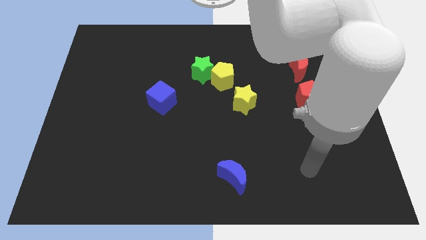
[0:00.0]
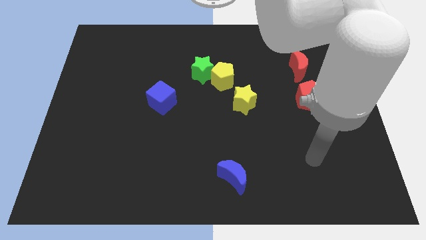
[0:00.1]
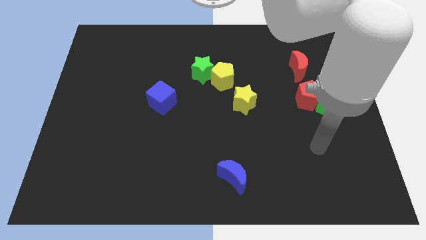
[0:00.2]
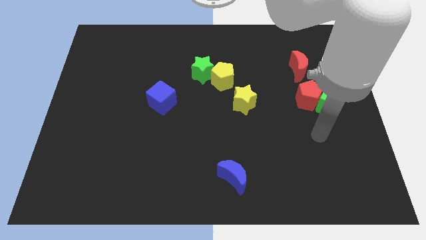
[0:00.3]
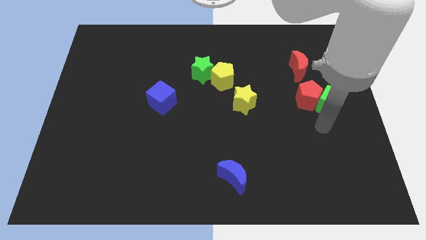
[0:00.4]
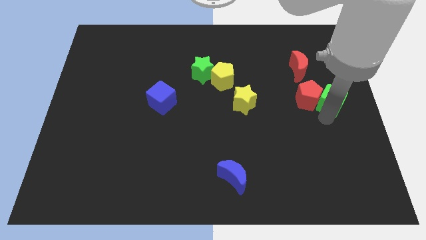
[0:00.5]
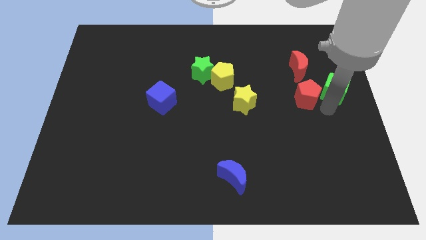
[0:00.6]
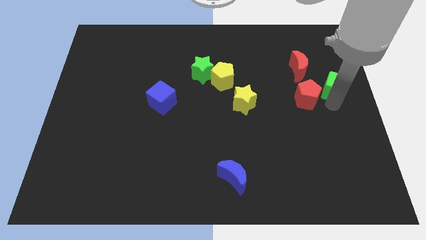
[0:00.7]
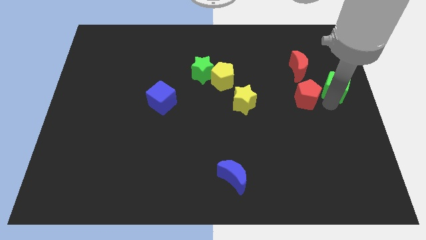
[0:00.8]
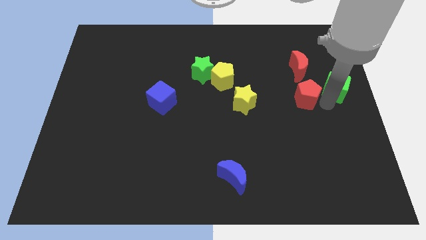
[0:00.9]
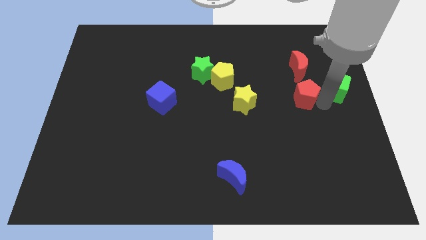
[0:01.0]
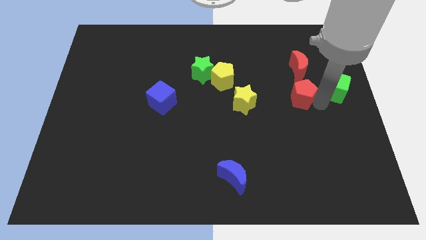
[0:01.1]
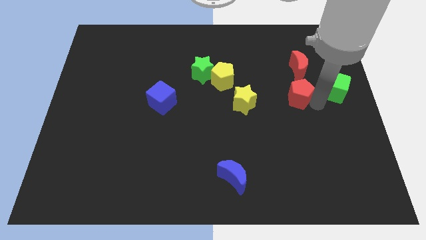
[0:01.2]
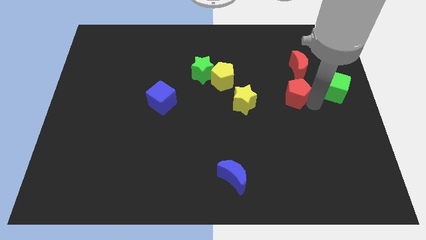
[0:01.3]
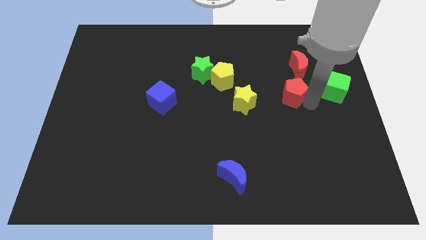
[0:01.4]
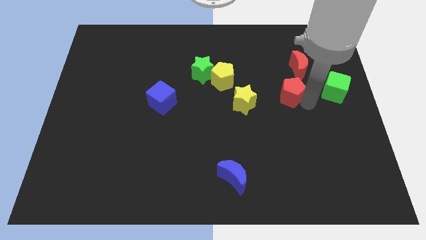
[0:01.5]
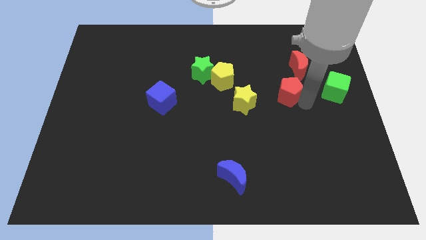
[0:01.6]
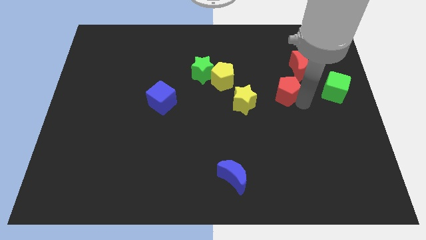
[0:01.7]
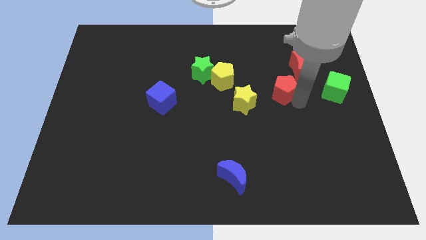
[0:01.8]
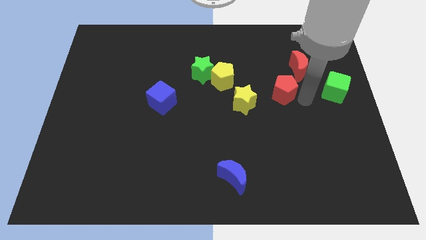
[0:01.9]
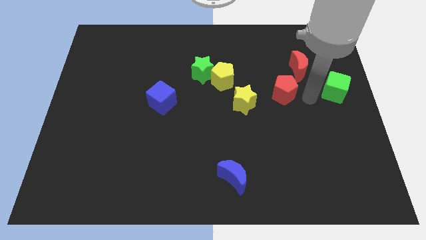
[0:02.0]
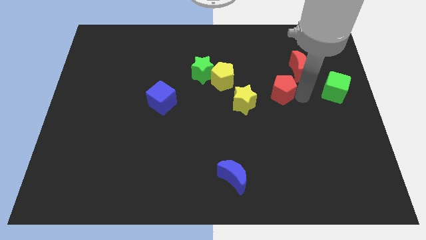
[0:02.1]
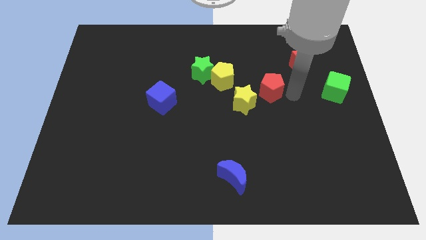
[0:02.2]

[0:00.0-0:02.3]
push the red pentagon a bit left

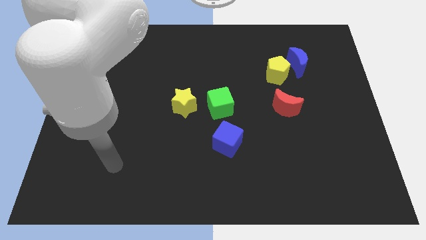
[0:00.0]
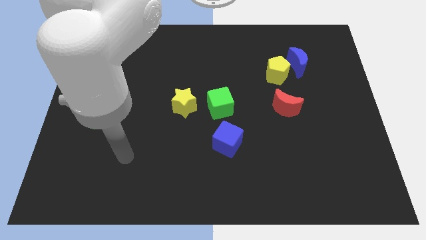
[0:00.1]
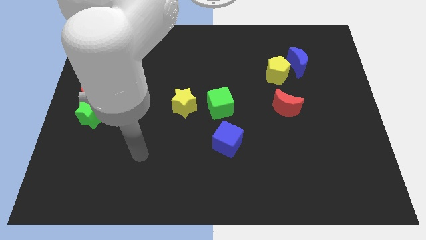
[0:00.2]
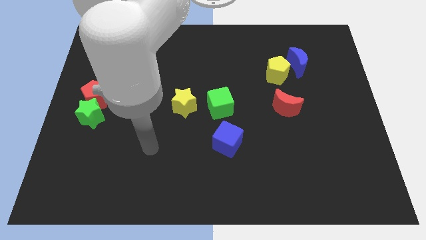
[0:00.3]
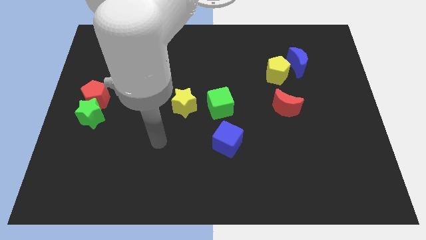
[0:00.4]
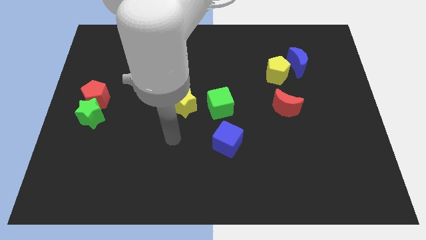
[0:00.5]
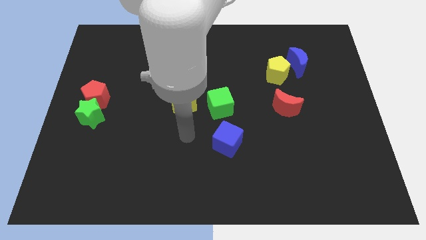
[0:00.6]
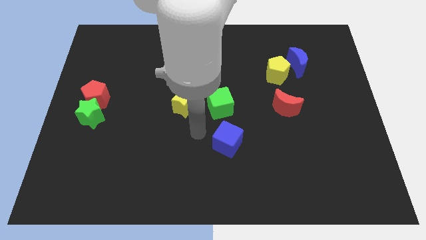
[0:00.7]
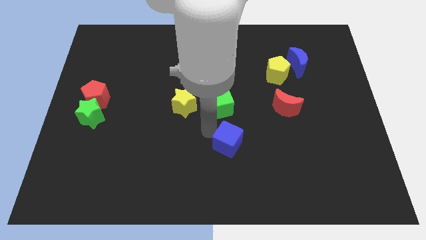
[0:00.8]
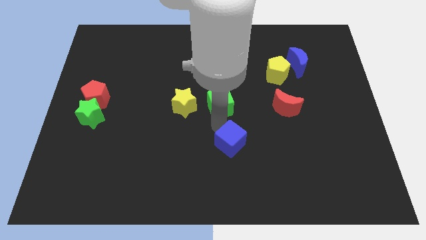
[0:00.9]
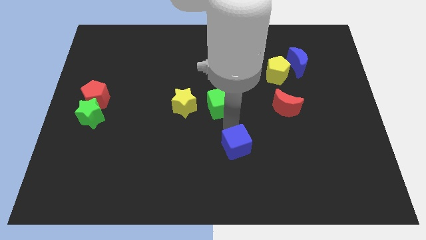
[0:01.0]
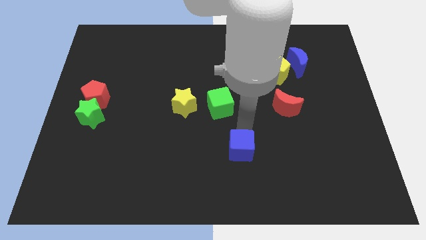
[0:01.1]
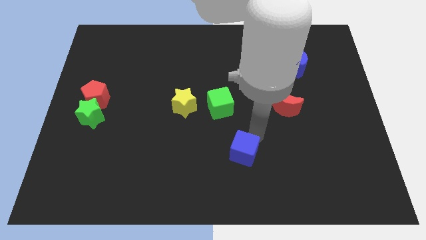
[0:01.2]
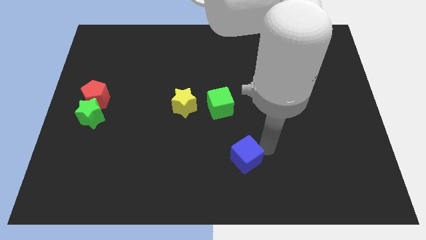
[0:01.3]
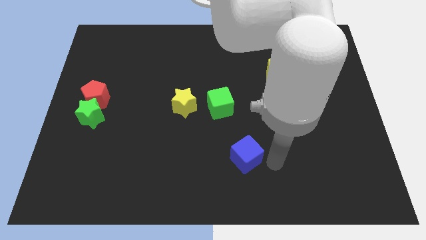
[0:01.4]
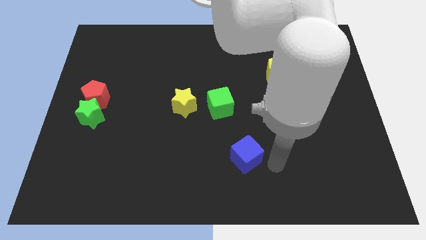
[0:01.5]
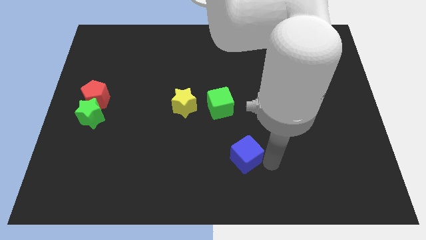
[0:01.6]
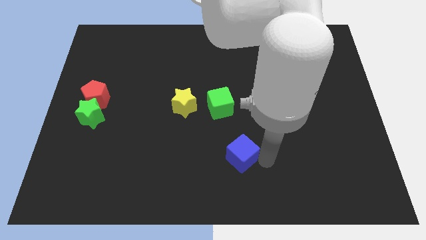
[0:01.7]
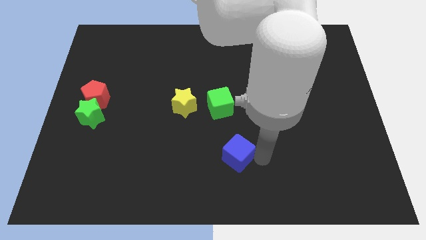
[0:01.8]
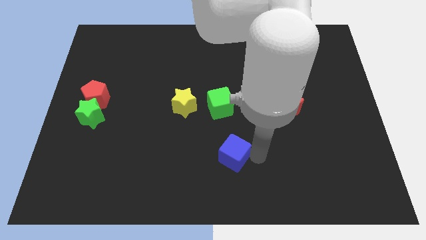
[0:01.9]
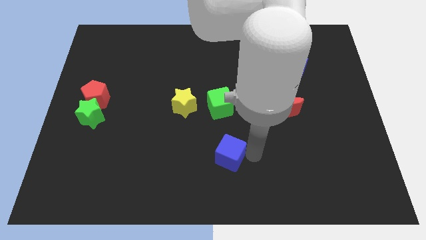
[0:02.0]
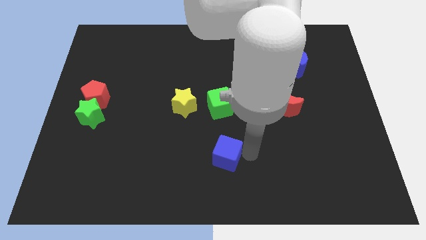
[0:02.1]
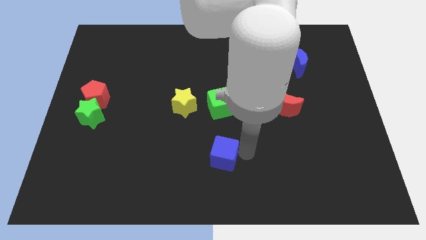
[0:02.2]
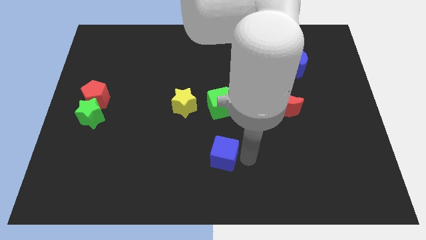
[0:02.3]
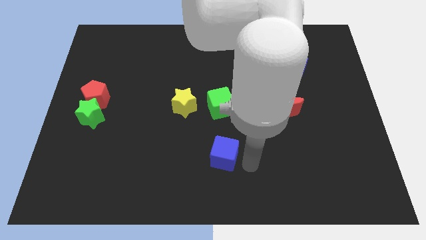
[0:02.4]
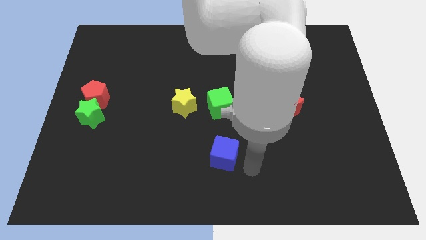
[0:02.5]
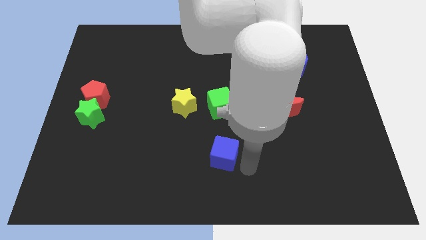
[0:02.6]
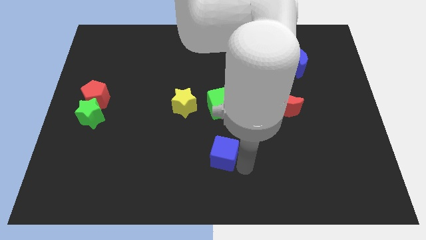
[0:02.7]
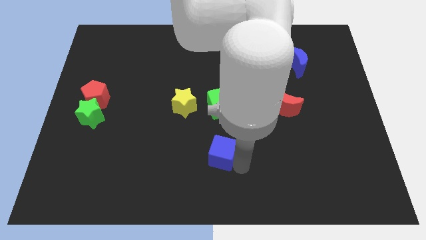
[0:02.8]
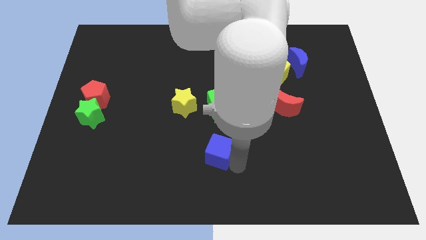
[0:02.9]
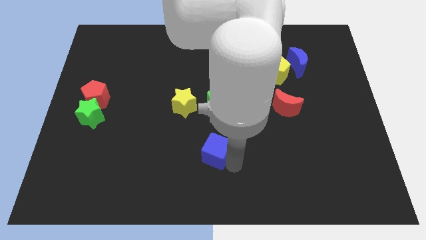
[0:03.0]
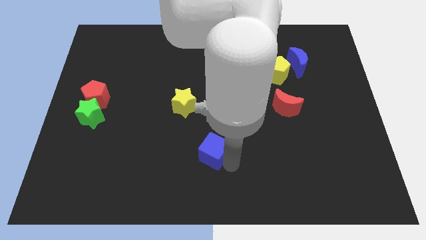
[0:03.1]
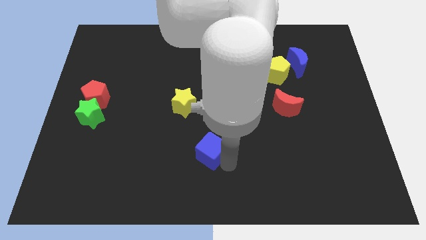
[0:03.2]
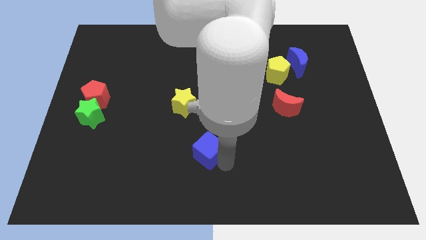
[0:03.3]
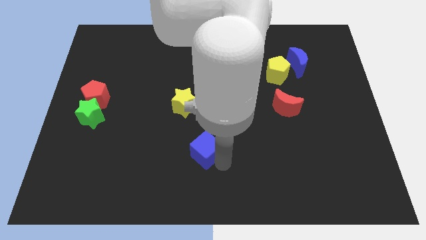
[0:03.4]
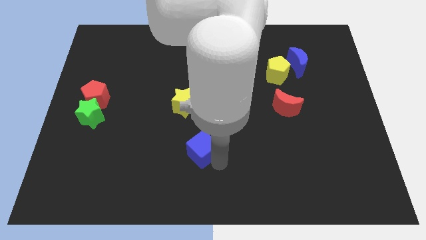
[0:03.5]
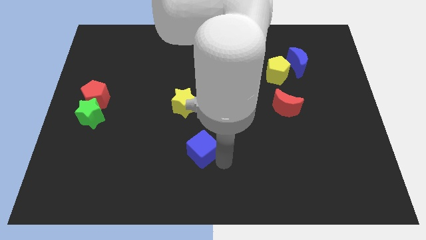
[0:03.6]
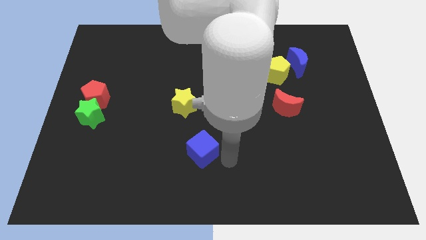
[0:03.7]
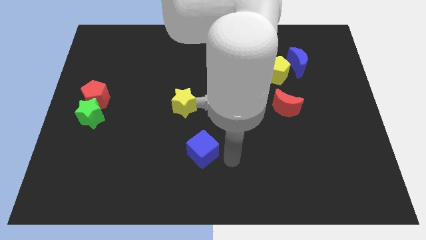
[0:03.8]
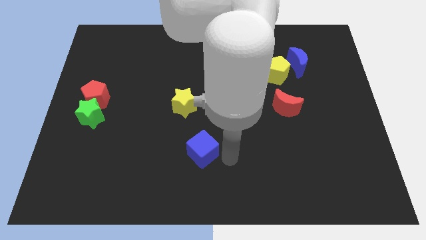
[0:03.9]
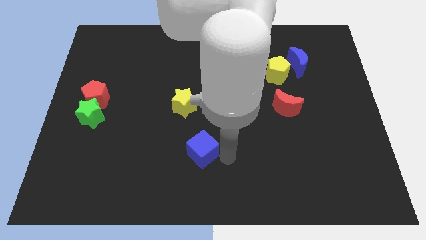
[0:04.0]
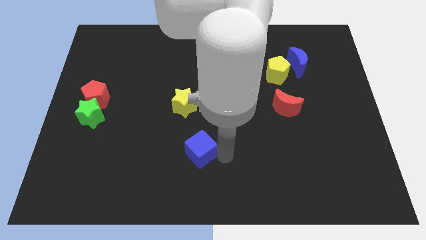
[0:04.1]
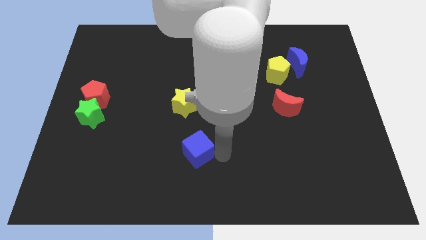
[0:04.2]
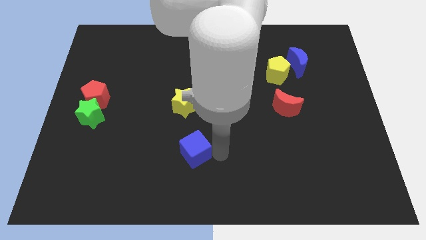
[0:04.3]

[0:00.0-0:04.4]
push the blue cube a bit to the left

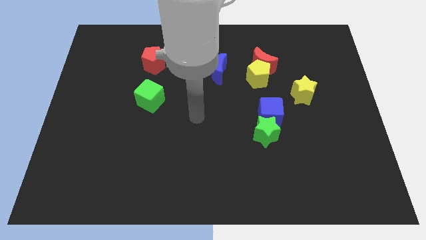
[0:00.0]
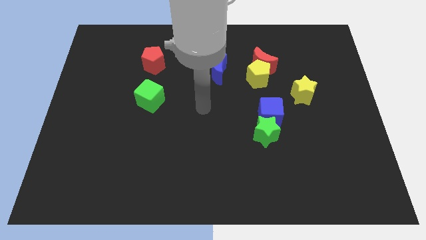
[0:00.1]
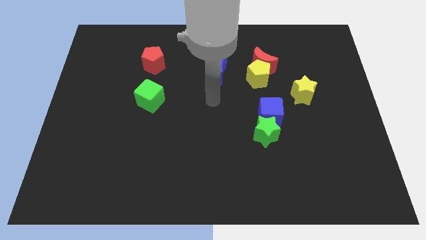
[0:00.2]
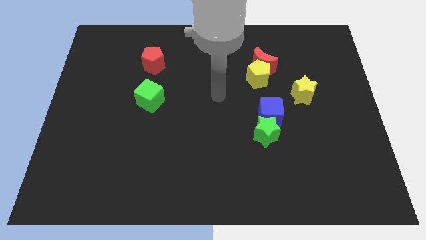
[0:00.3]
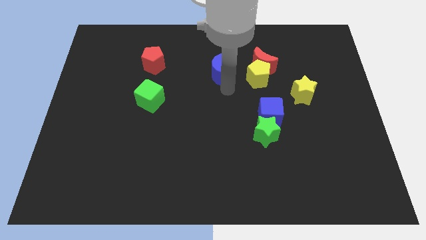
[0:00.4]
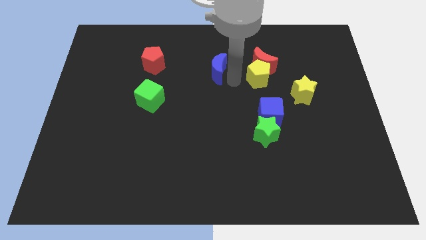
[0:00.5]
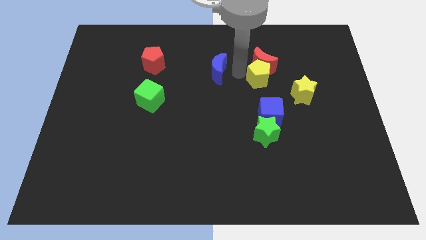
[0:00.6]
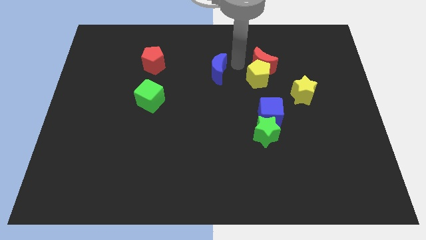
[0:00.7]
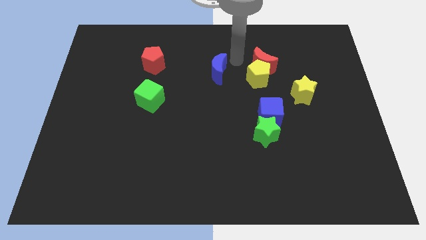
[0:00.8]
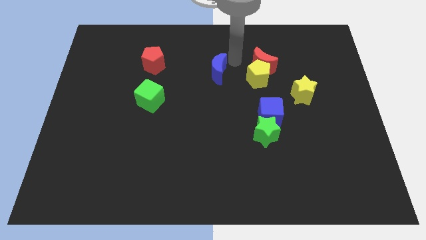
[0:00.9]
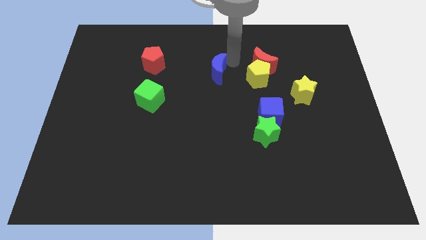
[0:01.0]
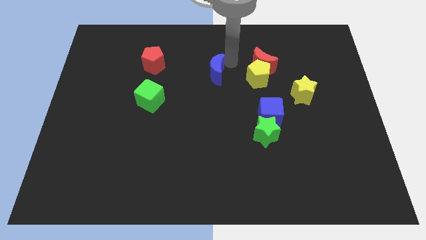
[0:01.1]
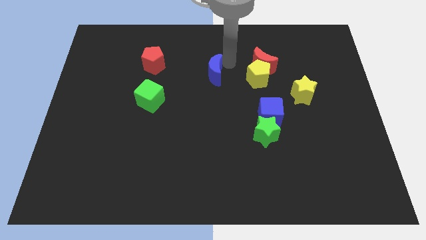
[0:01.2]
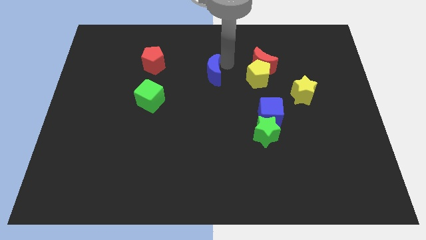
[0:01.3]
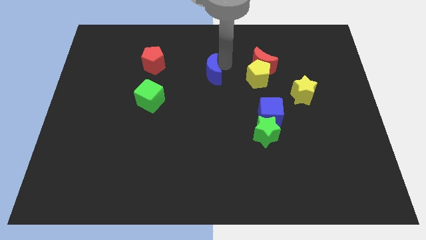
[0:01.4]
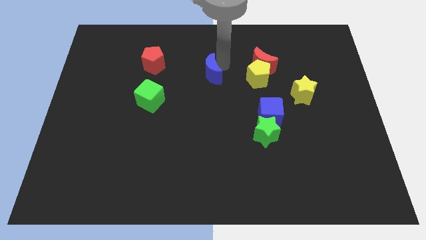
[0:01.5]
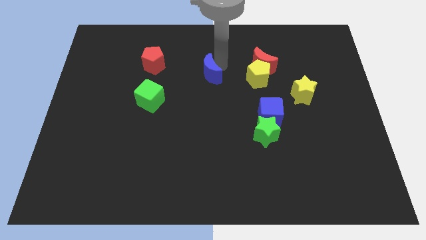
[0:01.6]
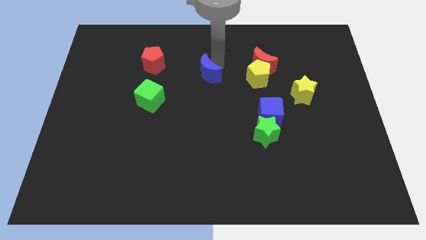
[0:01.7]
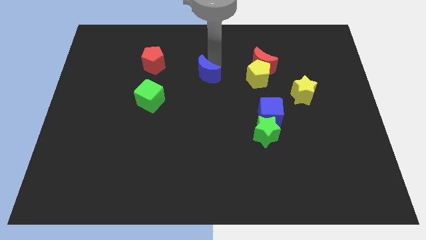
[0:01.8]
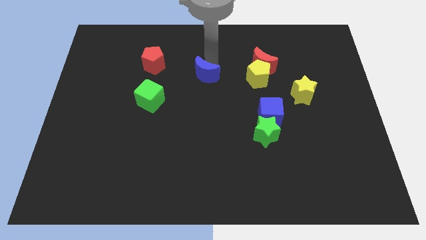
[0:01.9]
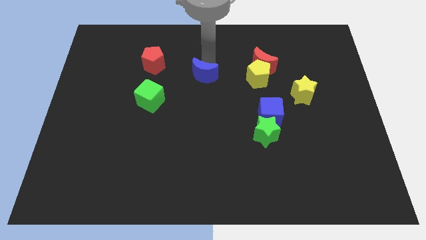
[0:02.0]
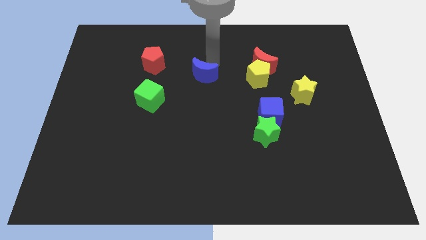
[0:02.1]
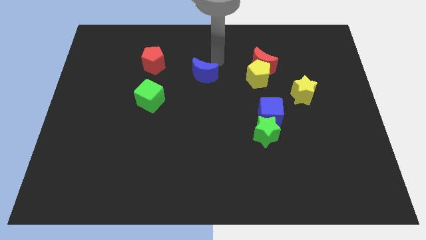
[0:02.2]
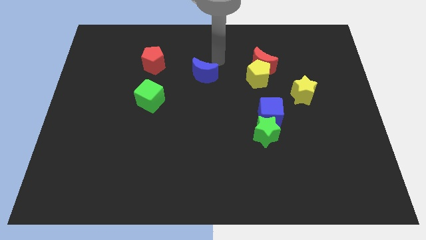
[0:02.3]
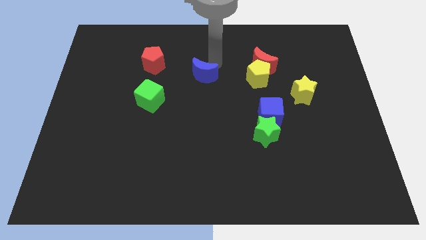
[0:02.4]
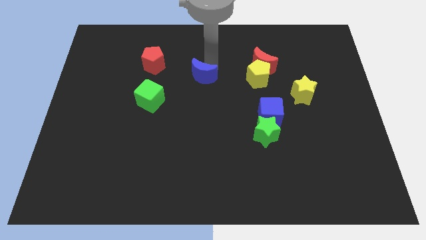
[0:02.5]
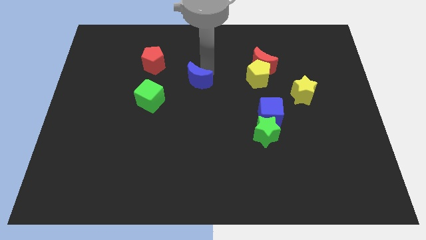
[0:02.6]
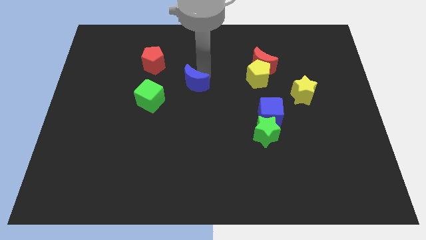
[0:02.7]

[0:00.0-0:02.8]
slightly push the blue moon diagonally downwards and left
